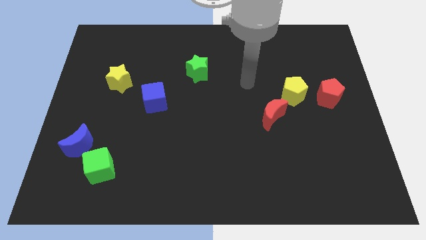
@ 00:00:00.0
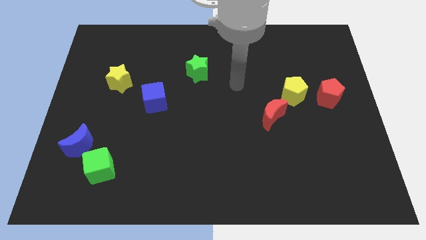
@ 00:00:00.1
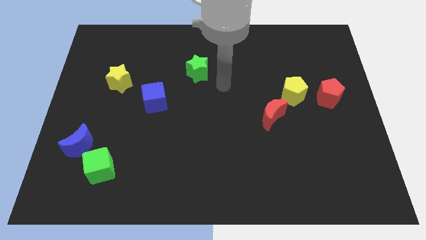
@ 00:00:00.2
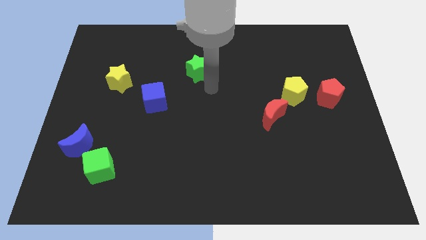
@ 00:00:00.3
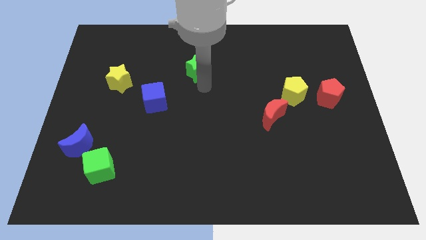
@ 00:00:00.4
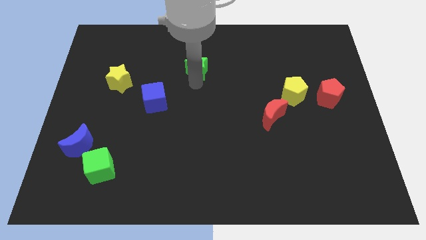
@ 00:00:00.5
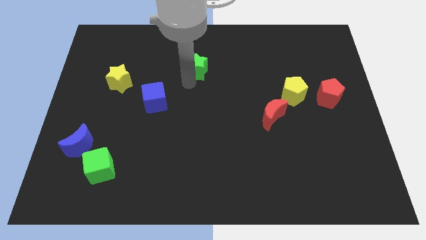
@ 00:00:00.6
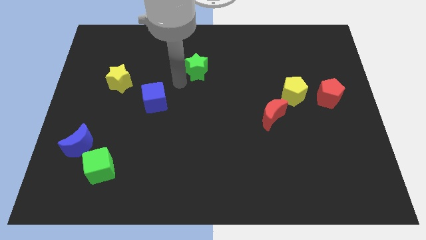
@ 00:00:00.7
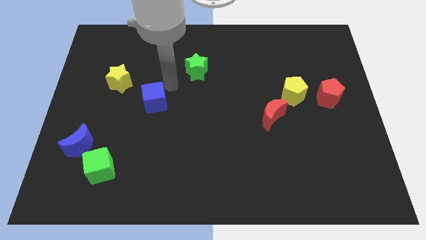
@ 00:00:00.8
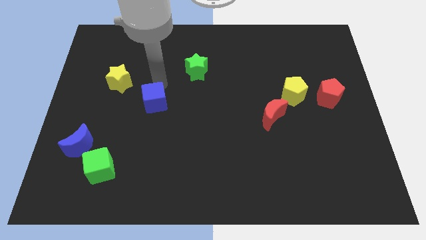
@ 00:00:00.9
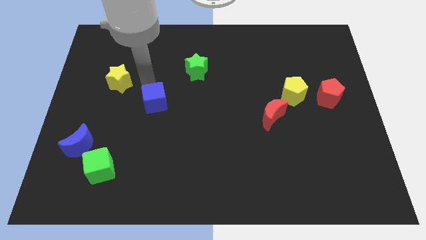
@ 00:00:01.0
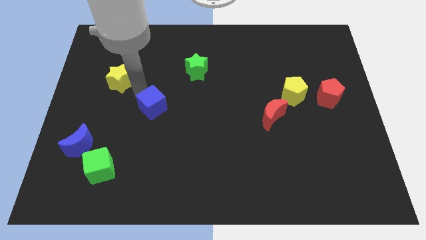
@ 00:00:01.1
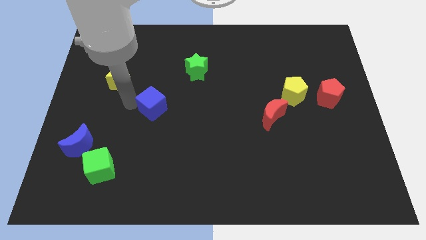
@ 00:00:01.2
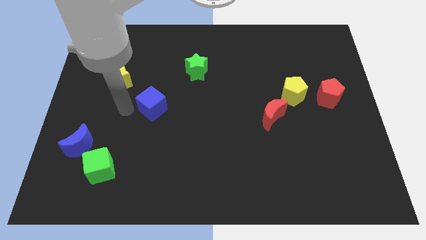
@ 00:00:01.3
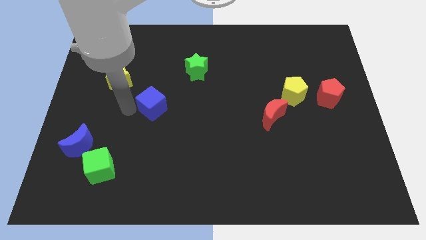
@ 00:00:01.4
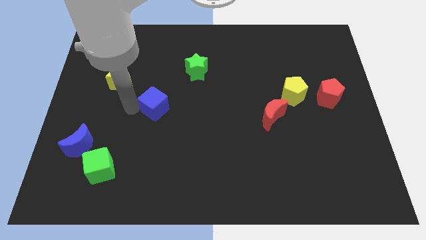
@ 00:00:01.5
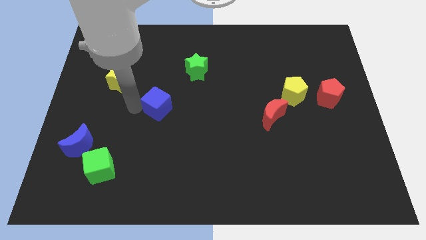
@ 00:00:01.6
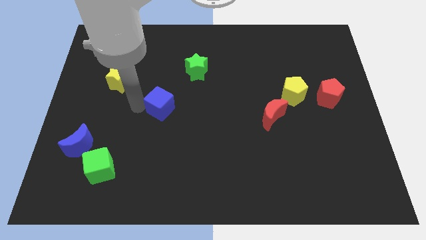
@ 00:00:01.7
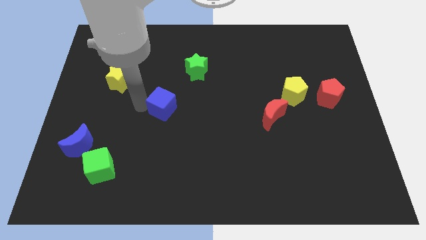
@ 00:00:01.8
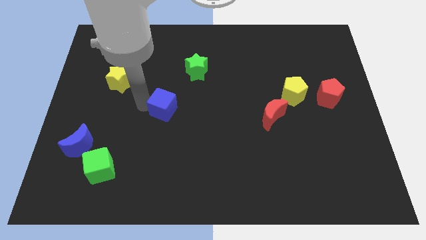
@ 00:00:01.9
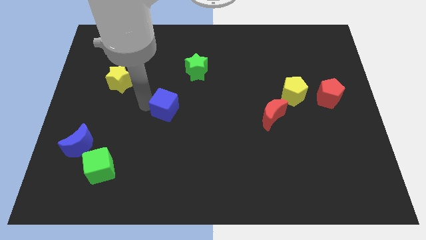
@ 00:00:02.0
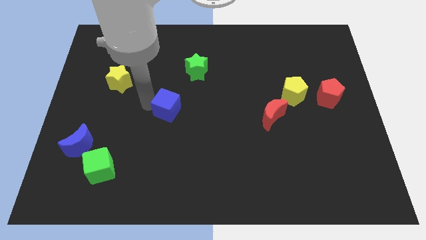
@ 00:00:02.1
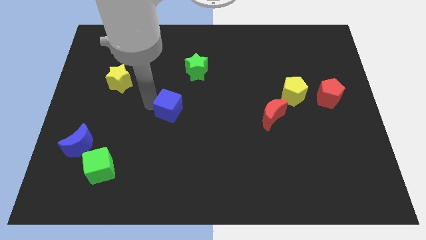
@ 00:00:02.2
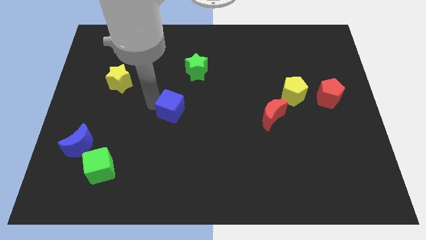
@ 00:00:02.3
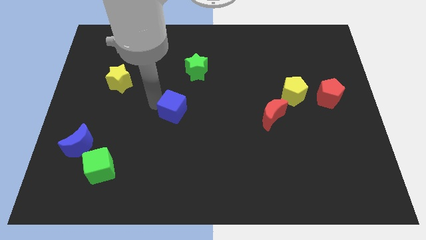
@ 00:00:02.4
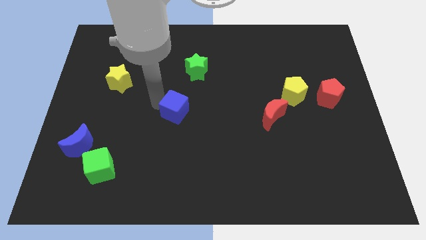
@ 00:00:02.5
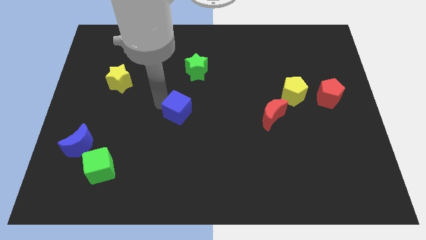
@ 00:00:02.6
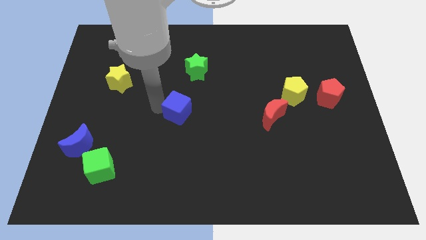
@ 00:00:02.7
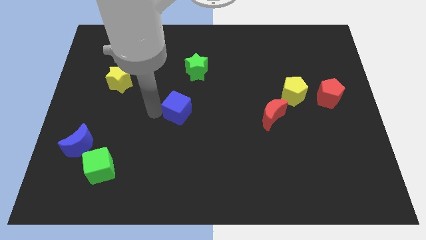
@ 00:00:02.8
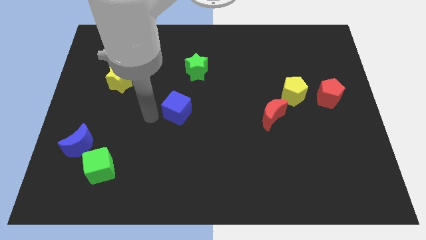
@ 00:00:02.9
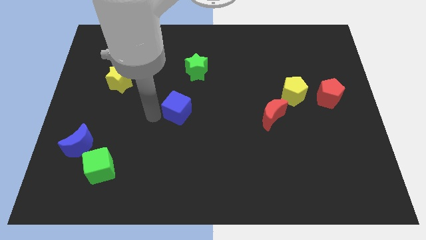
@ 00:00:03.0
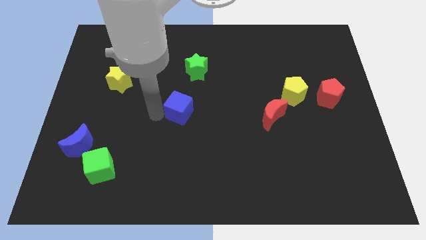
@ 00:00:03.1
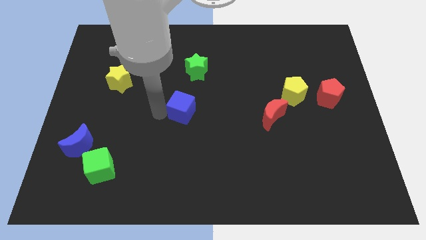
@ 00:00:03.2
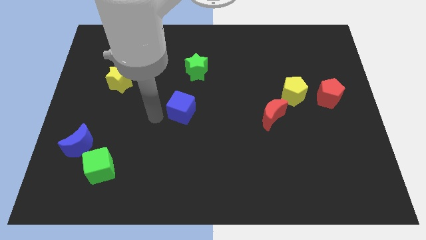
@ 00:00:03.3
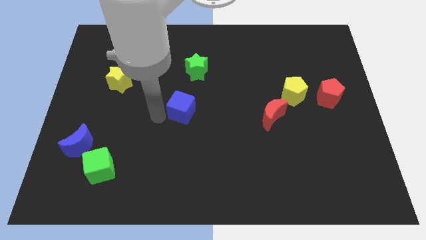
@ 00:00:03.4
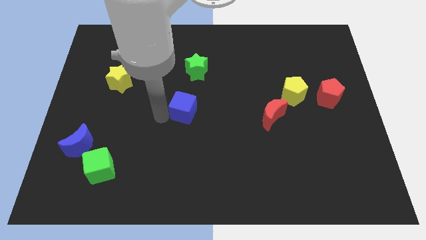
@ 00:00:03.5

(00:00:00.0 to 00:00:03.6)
move the blue cube right a bit

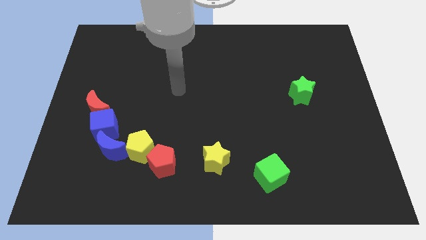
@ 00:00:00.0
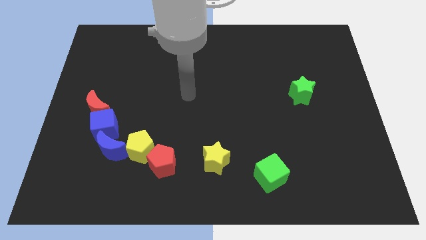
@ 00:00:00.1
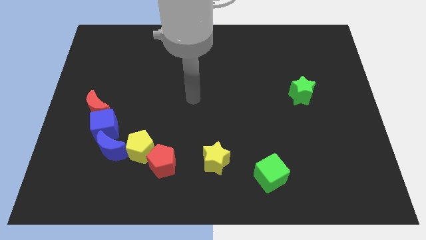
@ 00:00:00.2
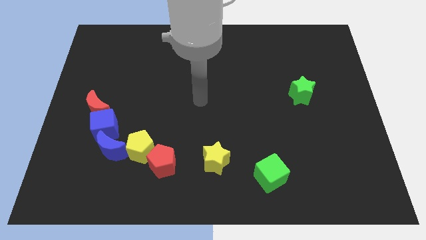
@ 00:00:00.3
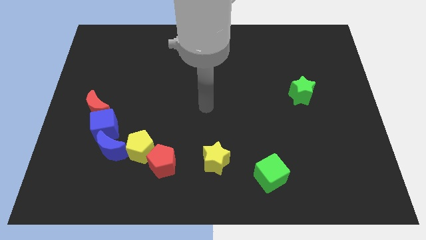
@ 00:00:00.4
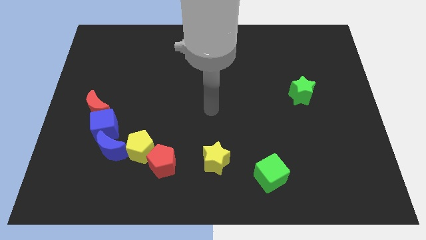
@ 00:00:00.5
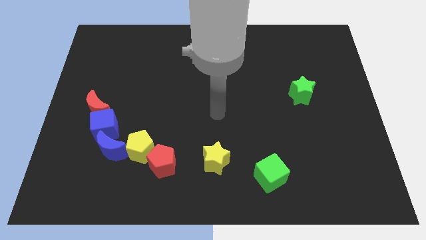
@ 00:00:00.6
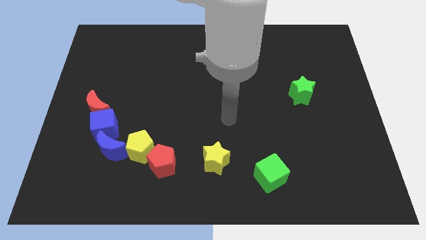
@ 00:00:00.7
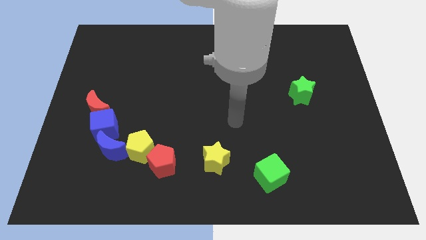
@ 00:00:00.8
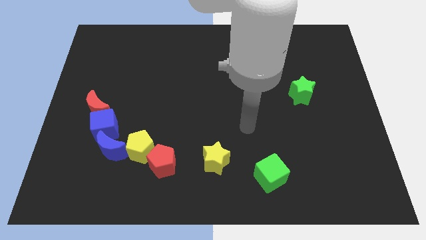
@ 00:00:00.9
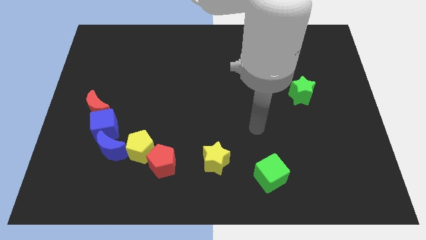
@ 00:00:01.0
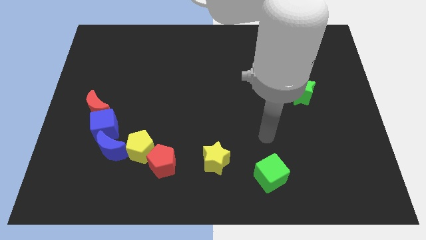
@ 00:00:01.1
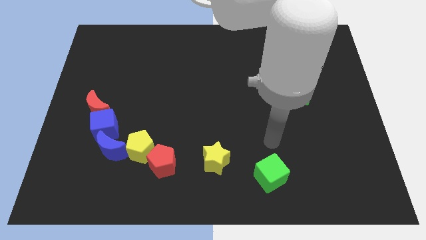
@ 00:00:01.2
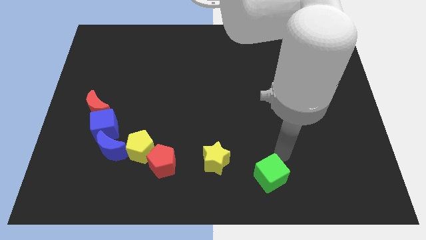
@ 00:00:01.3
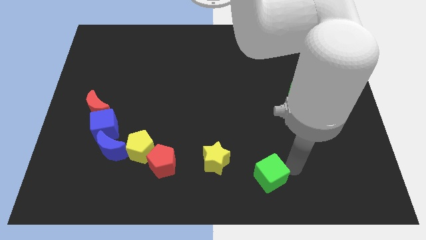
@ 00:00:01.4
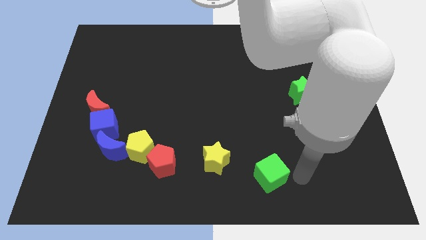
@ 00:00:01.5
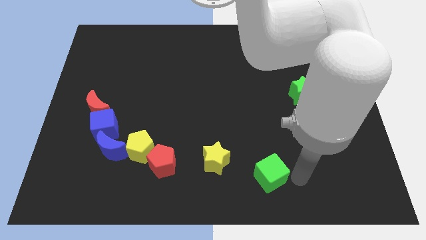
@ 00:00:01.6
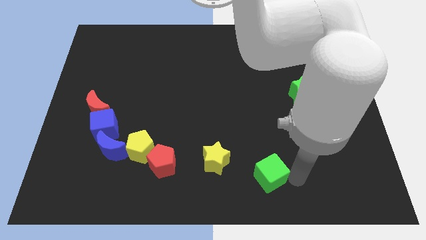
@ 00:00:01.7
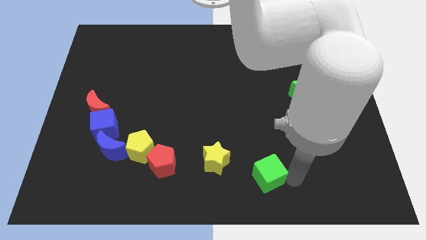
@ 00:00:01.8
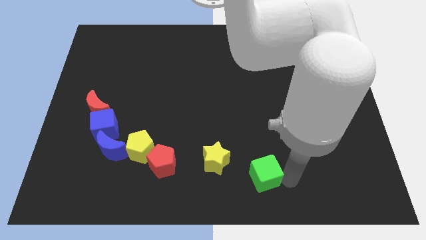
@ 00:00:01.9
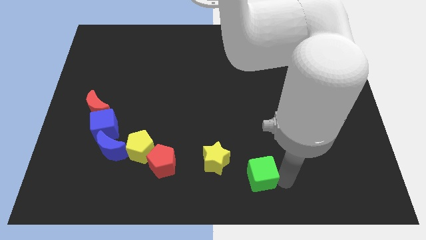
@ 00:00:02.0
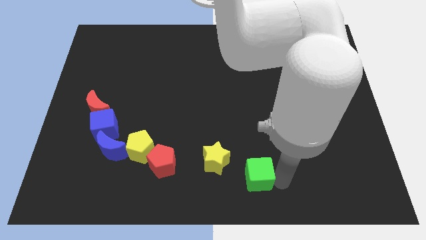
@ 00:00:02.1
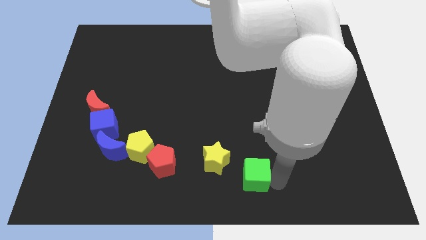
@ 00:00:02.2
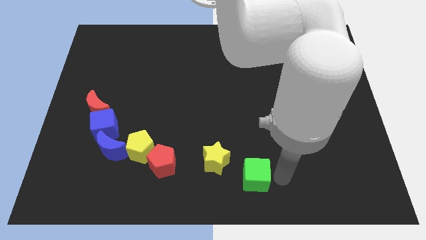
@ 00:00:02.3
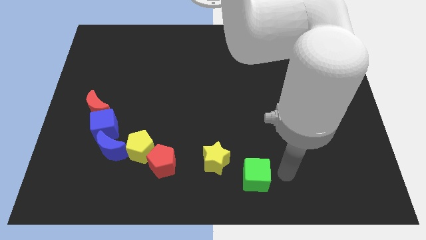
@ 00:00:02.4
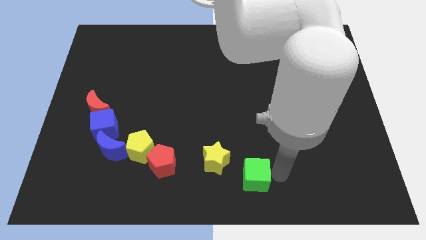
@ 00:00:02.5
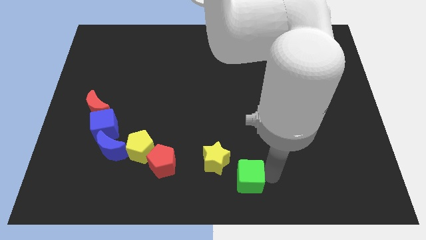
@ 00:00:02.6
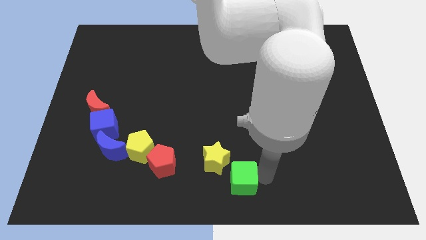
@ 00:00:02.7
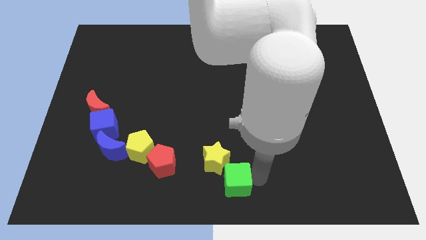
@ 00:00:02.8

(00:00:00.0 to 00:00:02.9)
move the green cube slightly to the left

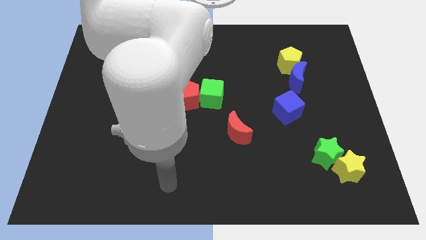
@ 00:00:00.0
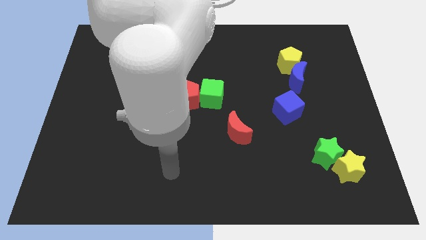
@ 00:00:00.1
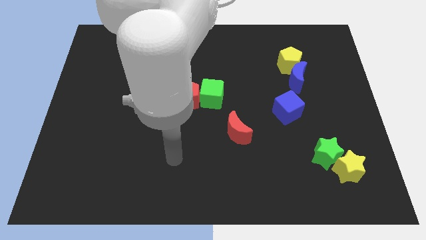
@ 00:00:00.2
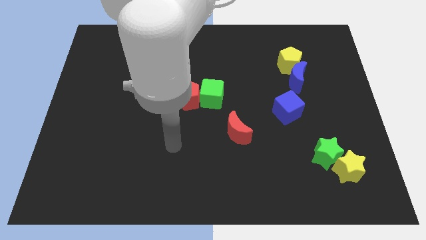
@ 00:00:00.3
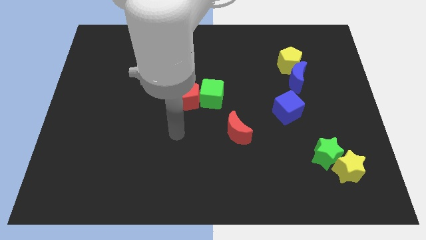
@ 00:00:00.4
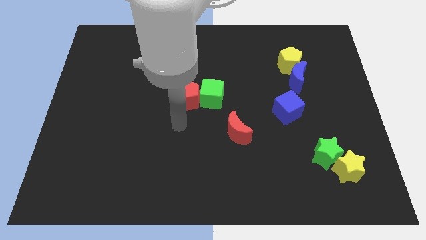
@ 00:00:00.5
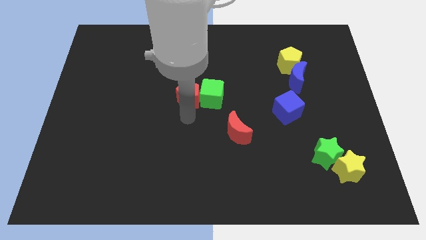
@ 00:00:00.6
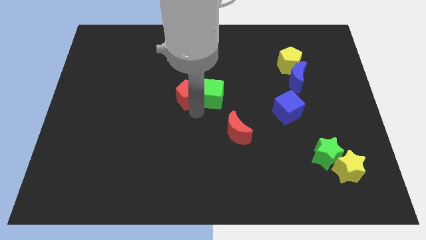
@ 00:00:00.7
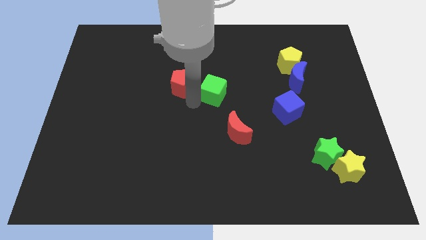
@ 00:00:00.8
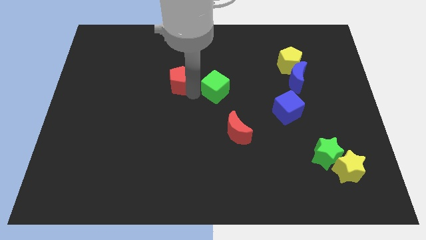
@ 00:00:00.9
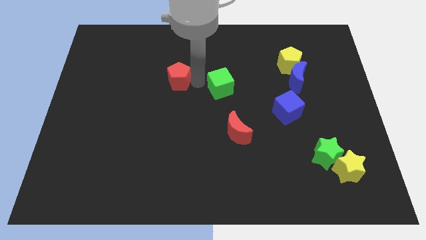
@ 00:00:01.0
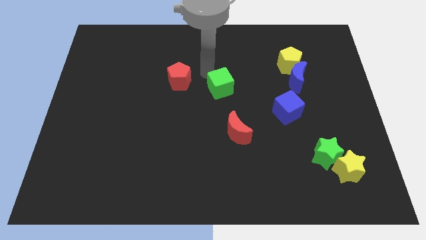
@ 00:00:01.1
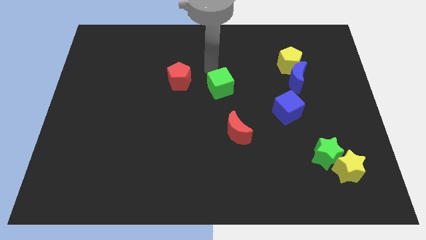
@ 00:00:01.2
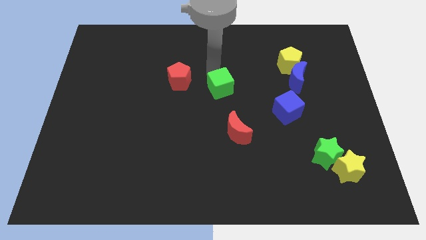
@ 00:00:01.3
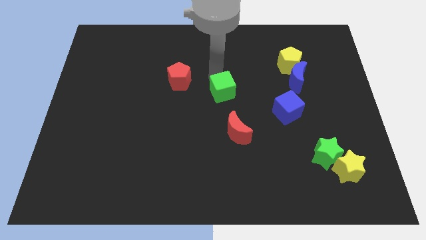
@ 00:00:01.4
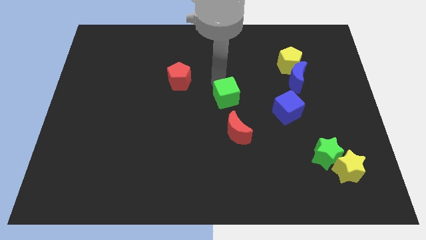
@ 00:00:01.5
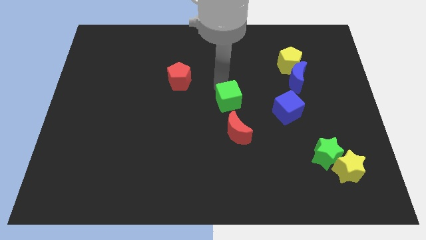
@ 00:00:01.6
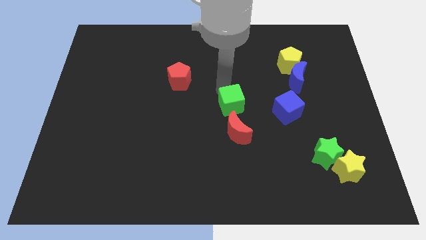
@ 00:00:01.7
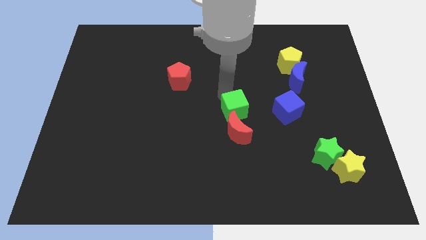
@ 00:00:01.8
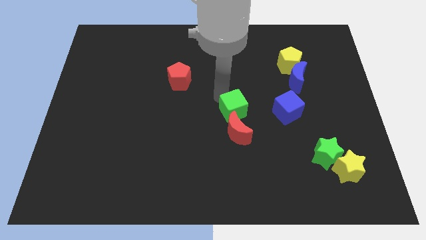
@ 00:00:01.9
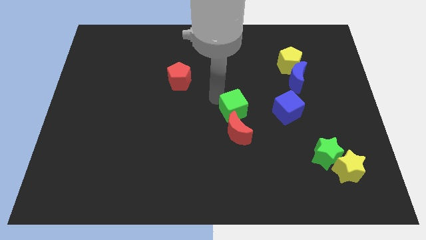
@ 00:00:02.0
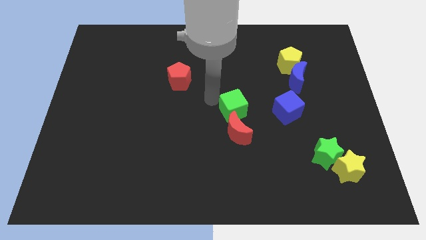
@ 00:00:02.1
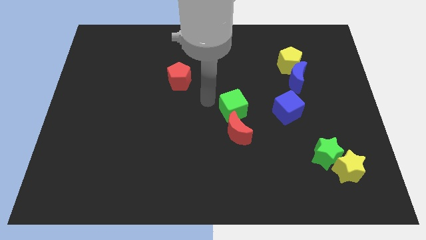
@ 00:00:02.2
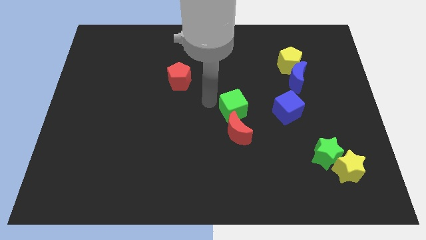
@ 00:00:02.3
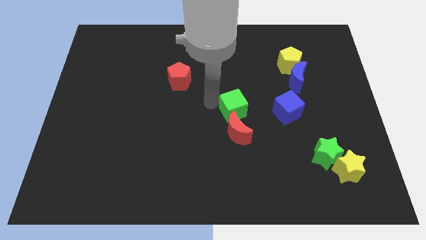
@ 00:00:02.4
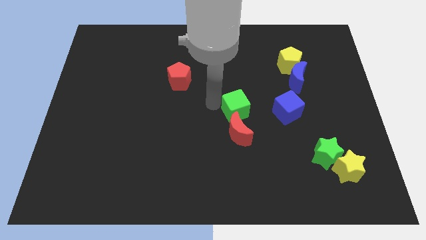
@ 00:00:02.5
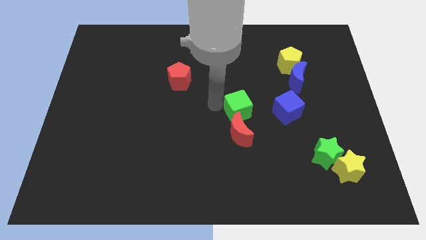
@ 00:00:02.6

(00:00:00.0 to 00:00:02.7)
move the green cube slightly downwards and then right
